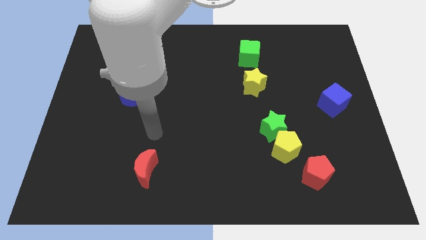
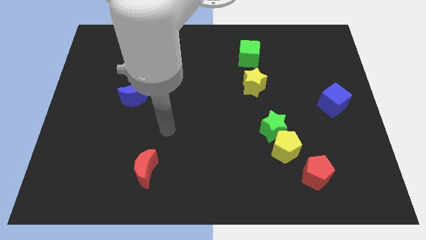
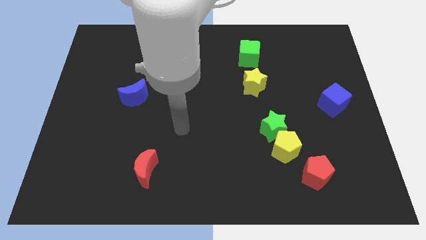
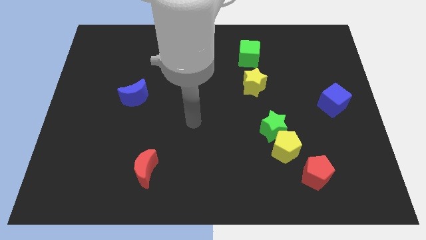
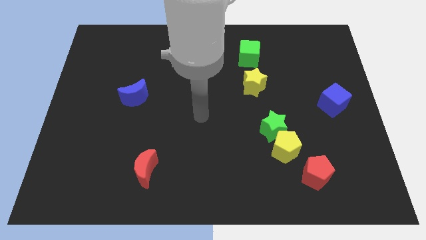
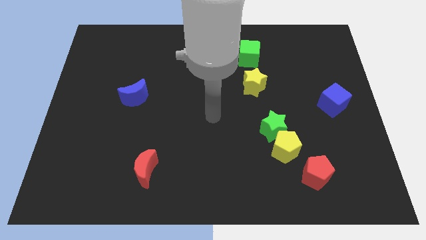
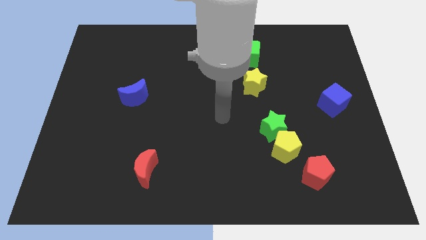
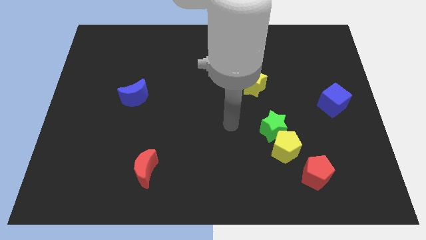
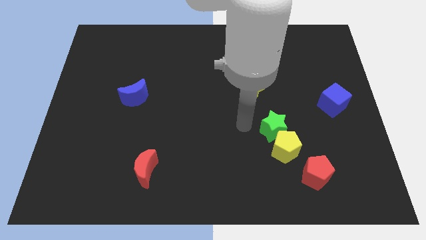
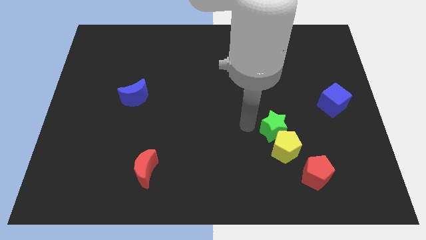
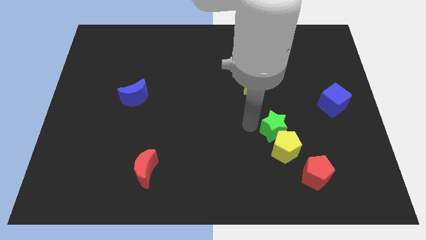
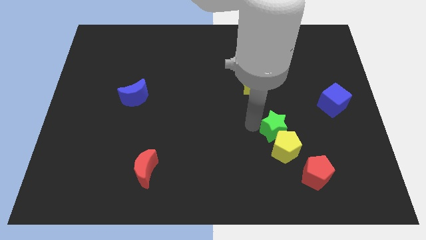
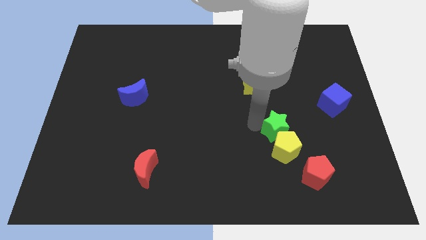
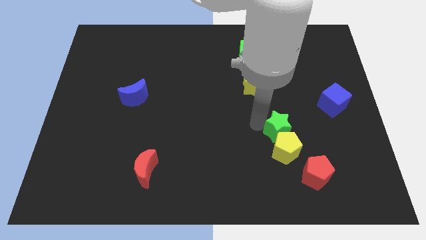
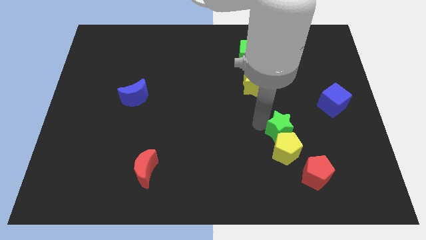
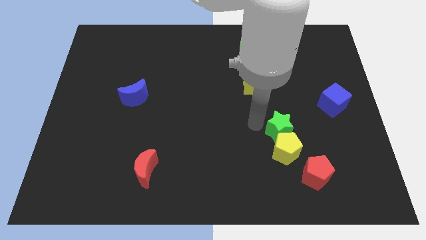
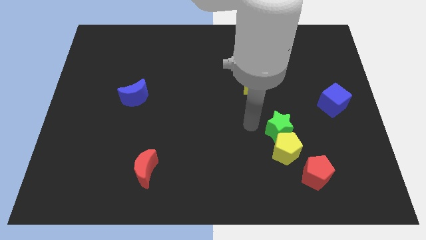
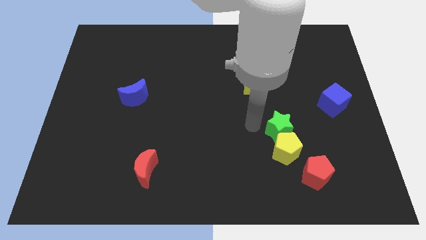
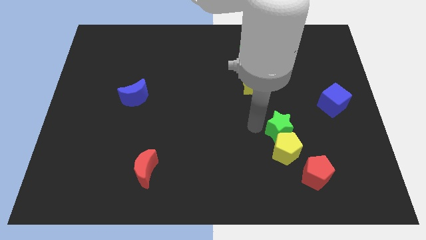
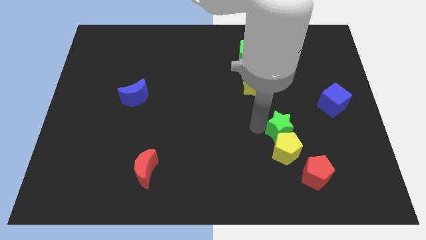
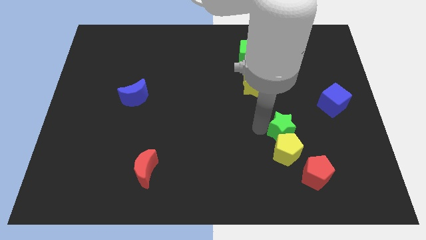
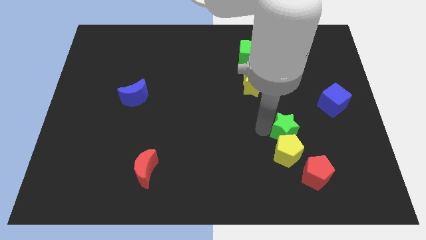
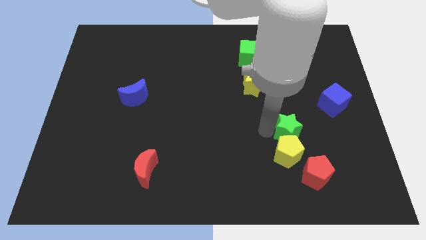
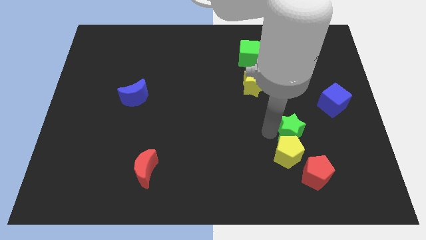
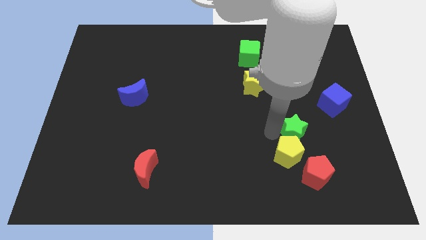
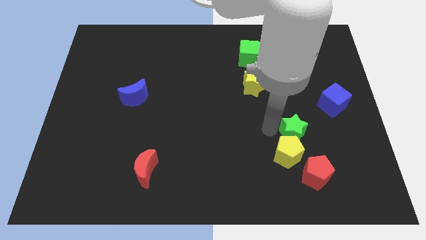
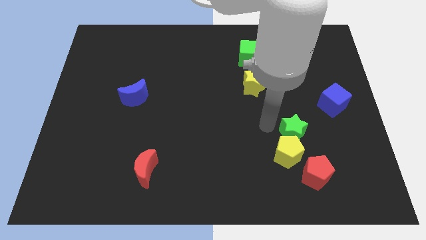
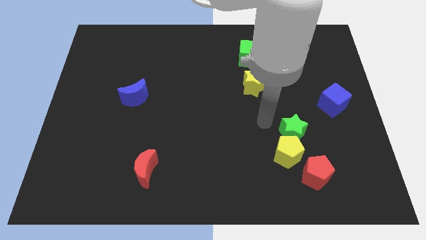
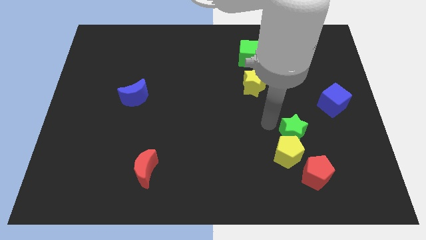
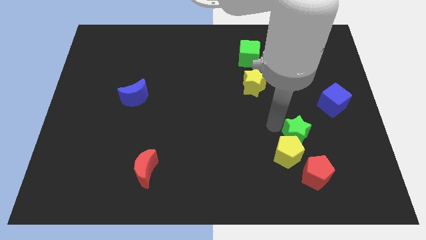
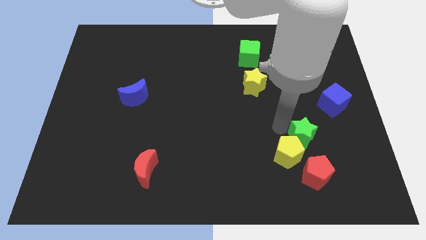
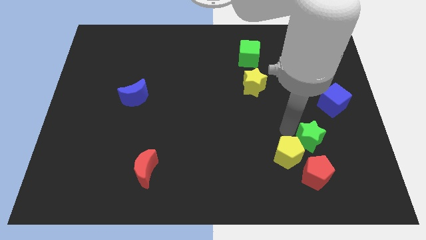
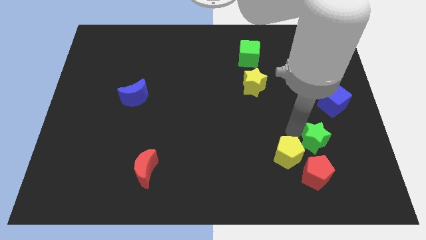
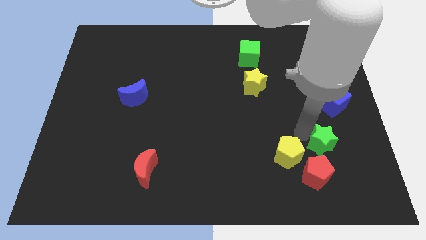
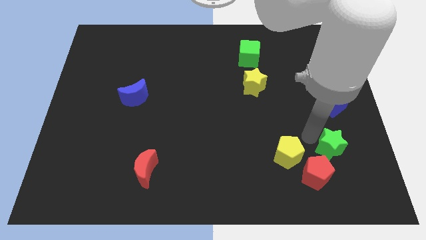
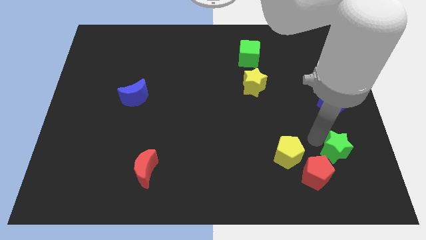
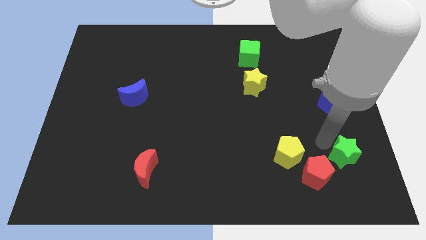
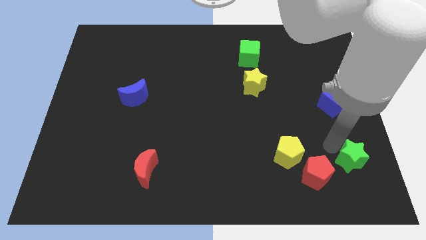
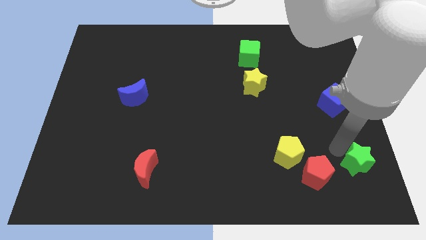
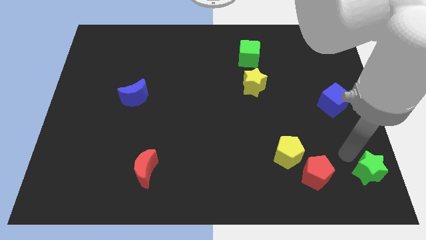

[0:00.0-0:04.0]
move the green star to the bottom right corner

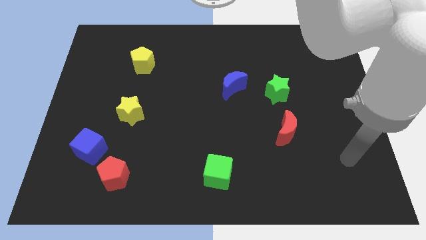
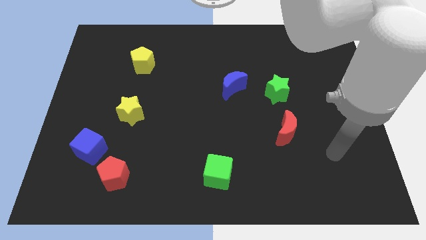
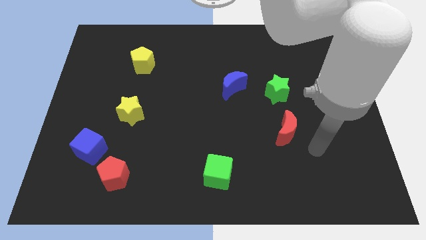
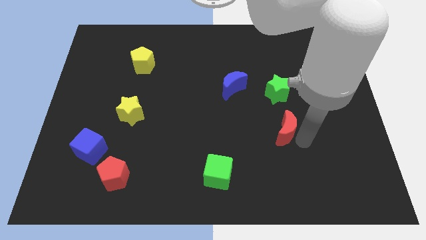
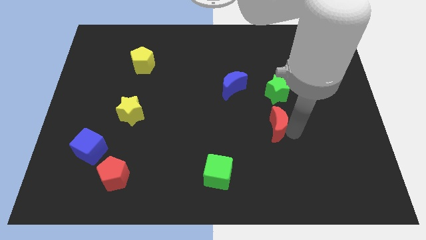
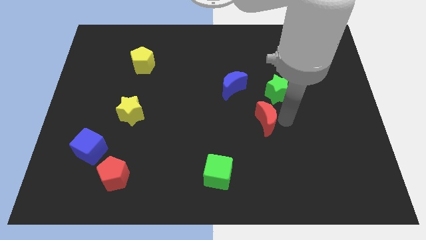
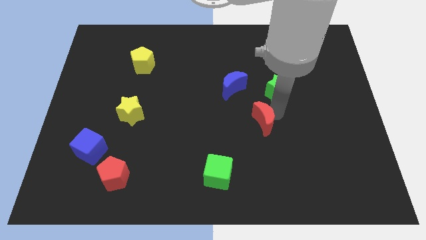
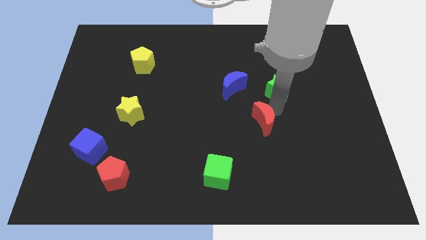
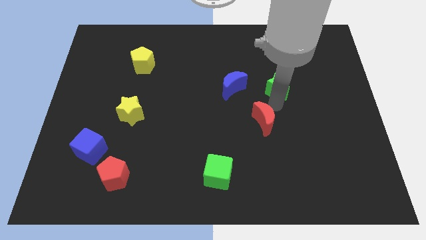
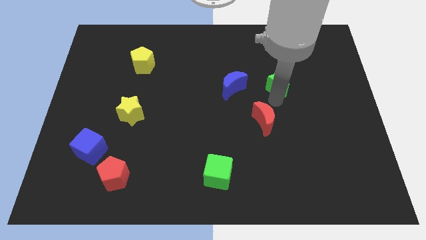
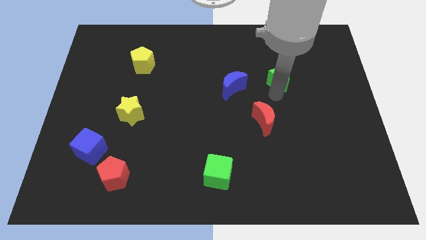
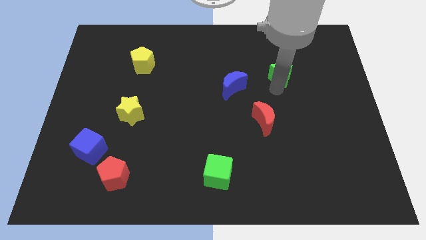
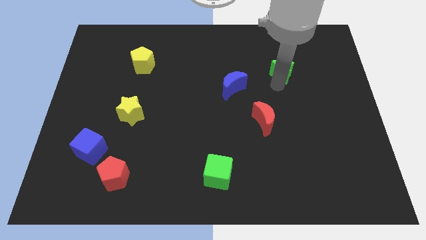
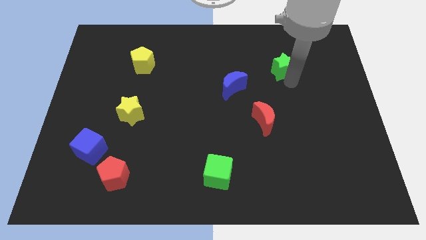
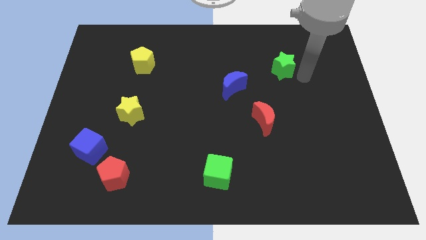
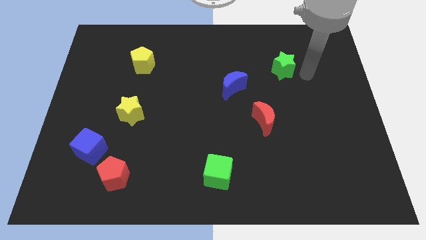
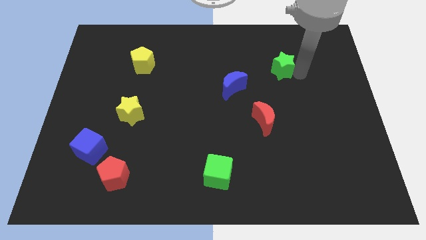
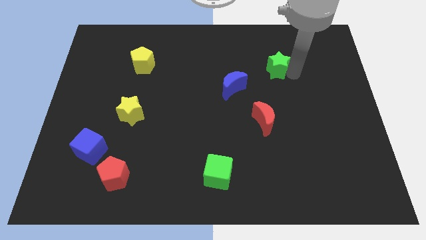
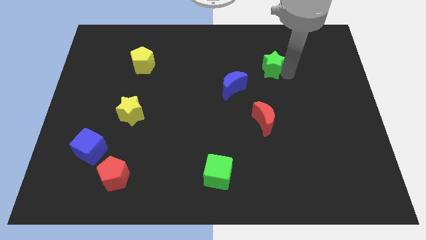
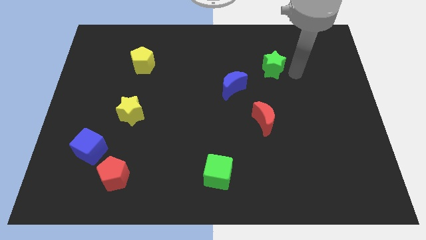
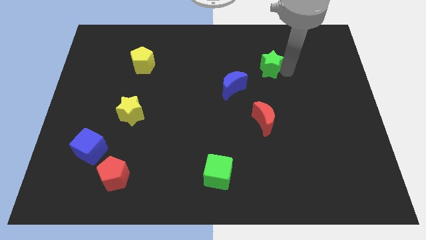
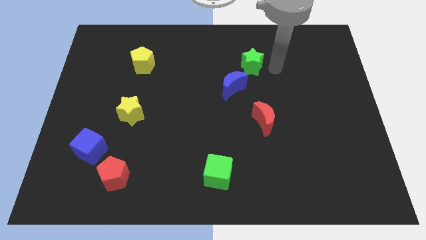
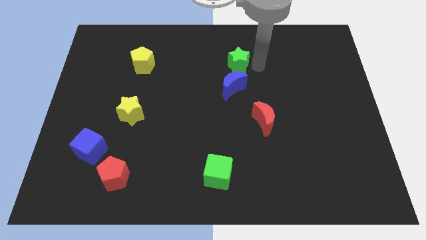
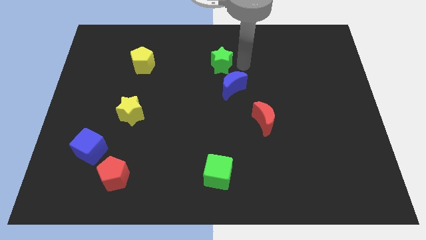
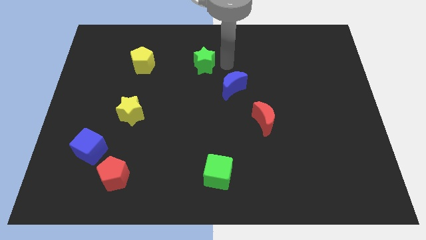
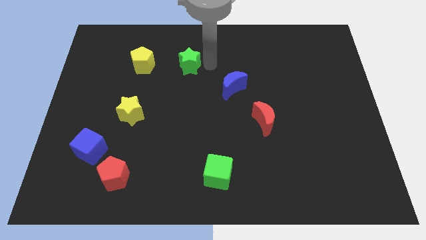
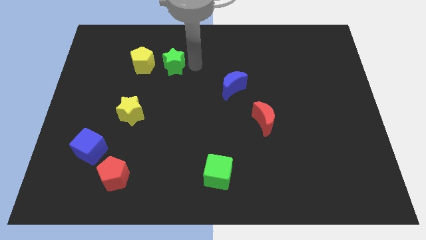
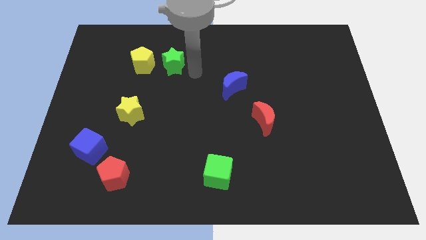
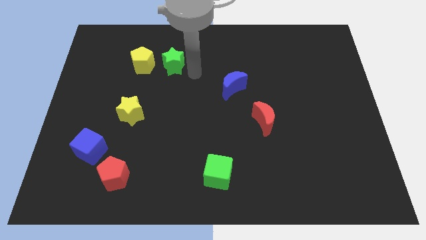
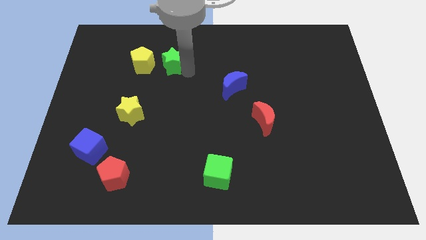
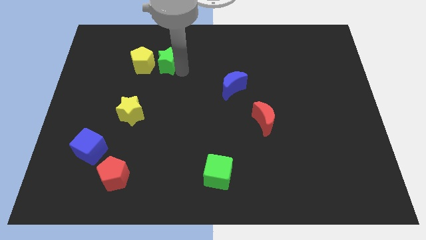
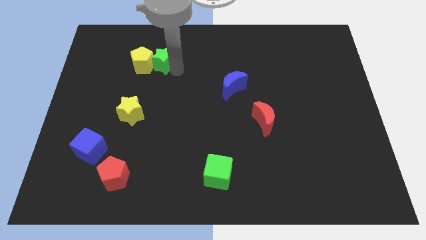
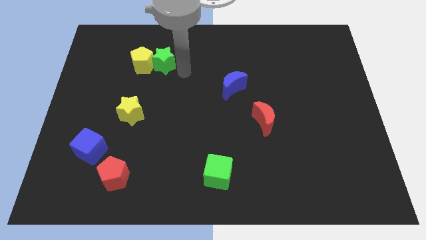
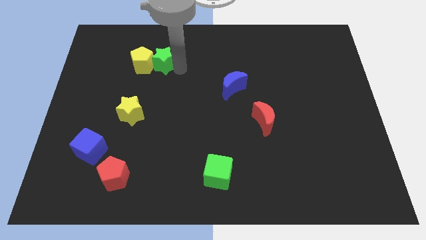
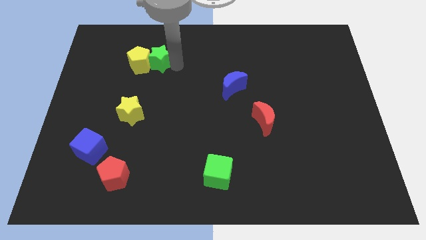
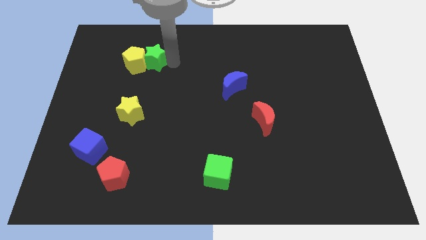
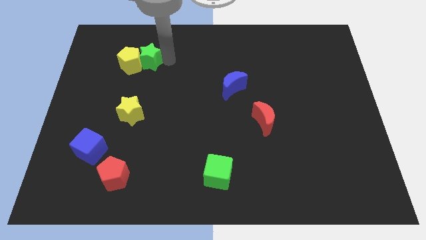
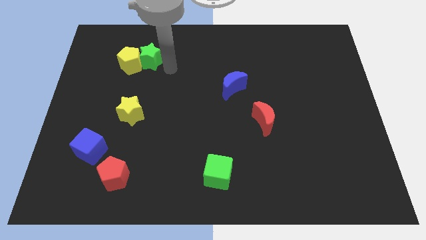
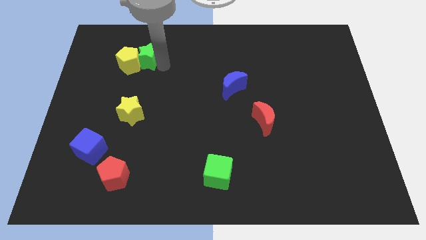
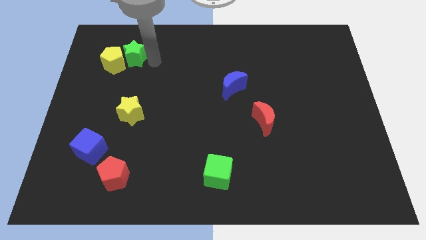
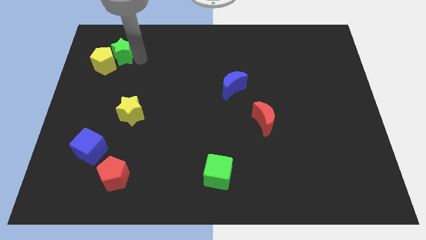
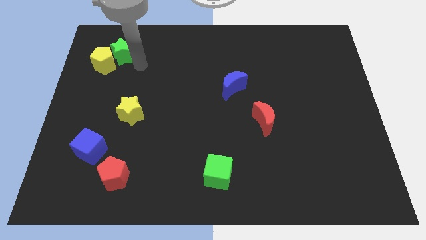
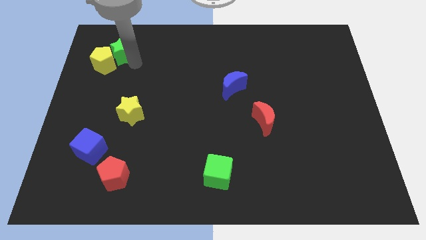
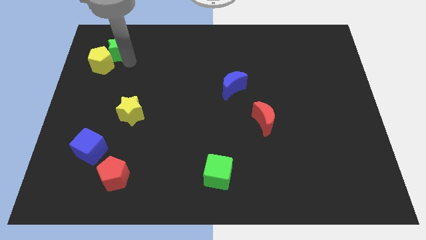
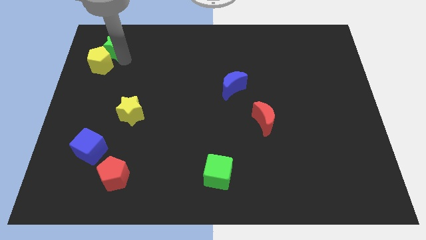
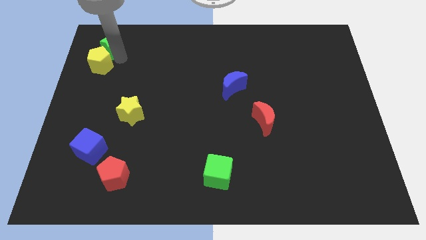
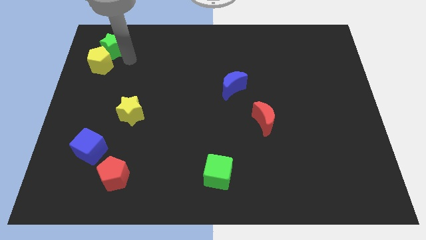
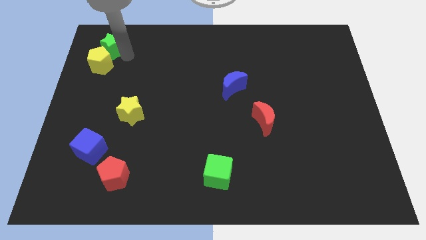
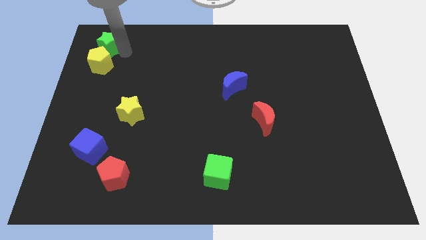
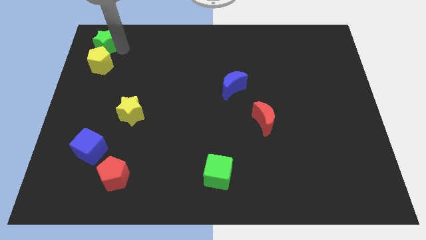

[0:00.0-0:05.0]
put the green star to the top left corner
